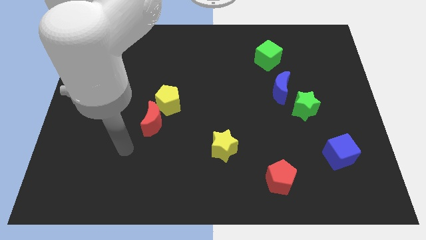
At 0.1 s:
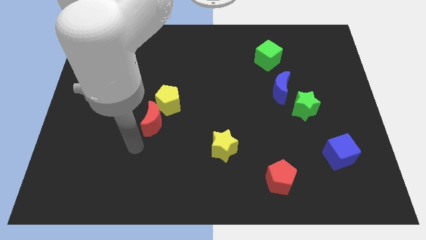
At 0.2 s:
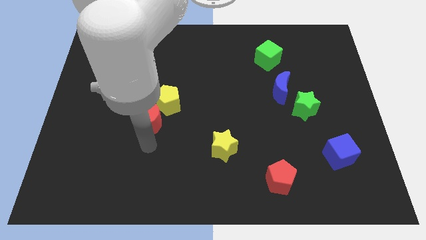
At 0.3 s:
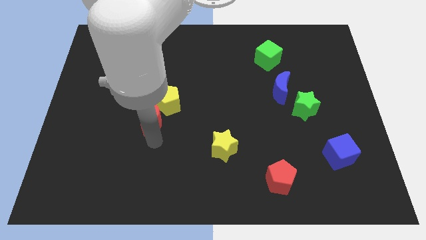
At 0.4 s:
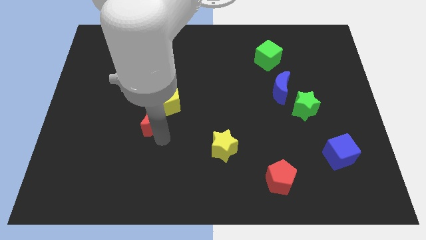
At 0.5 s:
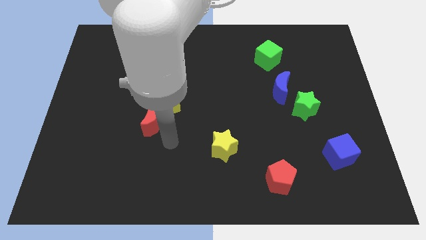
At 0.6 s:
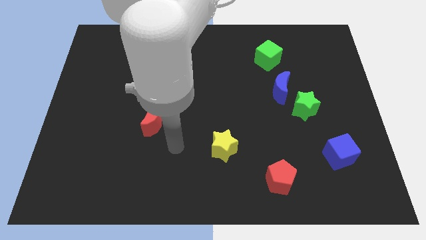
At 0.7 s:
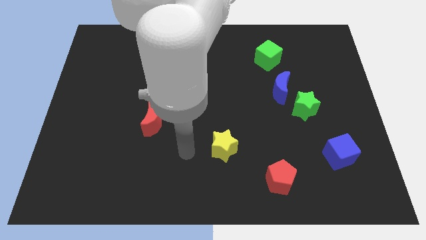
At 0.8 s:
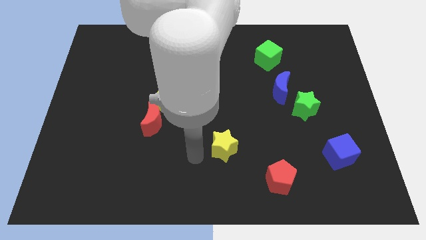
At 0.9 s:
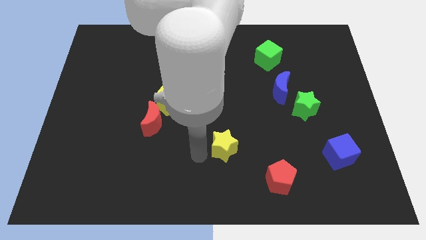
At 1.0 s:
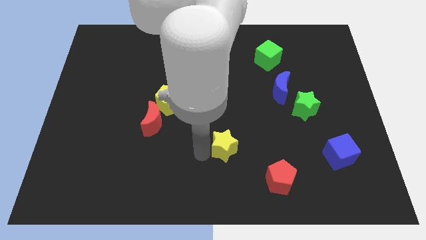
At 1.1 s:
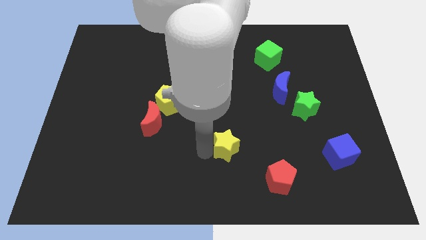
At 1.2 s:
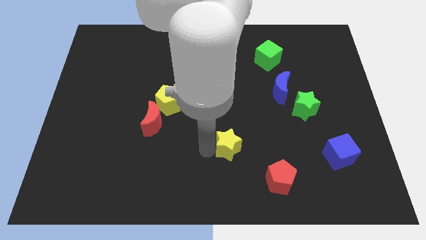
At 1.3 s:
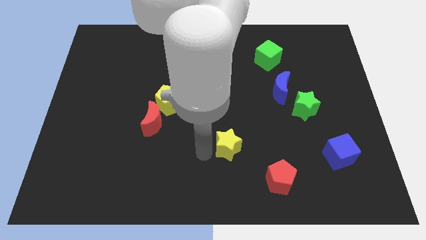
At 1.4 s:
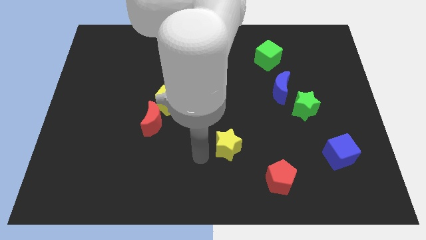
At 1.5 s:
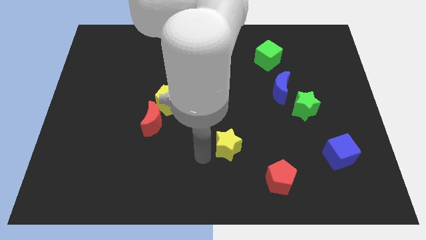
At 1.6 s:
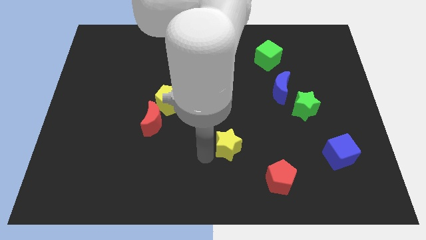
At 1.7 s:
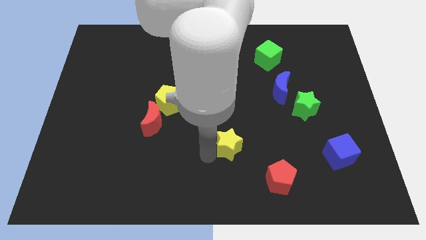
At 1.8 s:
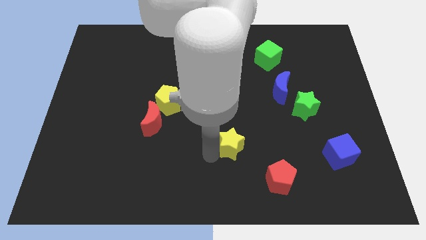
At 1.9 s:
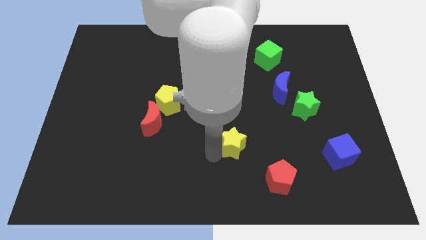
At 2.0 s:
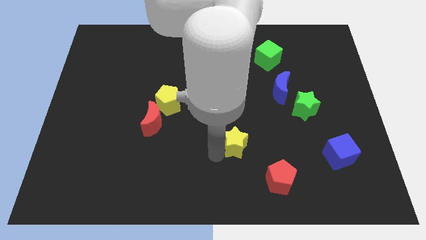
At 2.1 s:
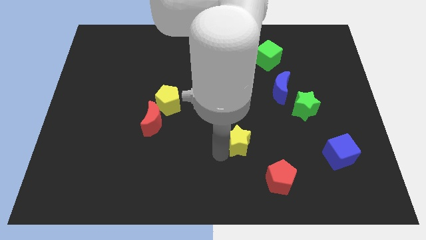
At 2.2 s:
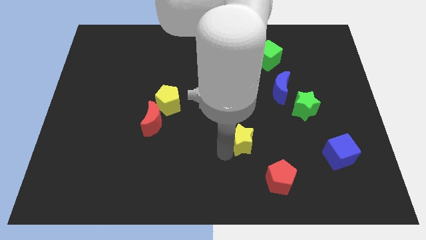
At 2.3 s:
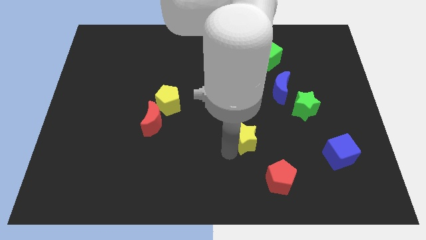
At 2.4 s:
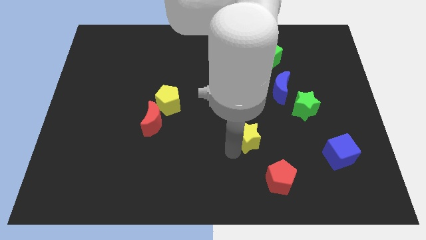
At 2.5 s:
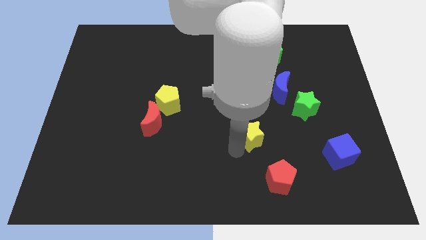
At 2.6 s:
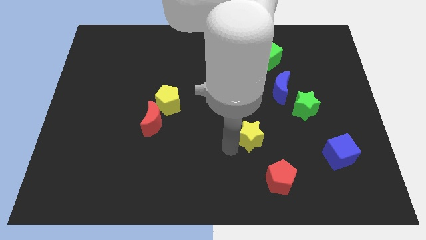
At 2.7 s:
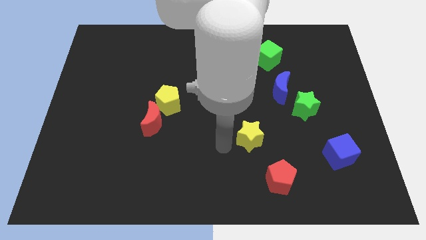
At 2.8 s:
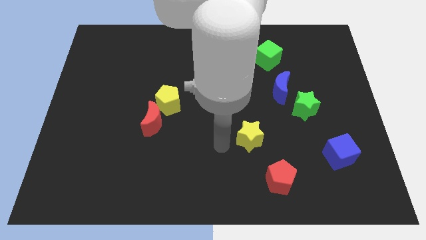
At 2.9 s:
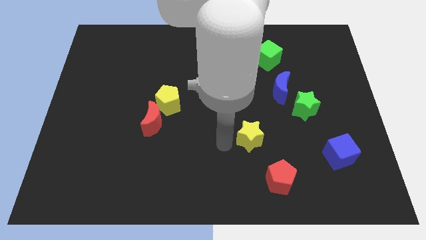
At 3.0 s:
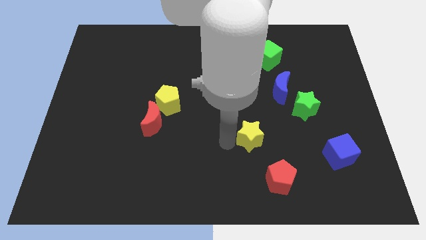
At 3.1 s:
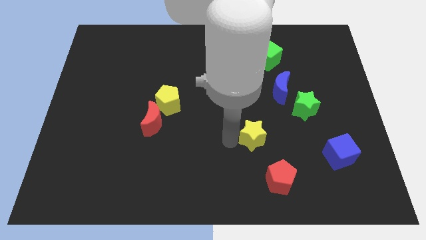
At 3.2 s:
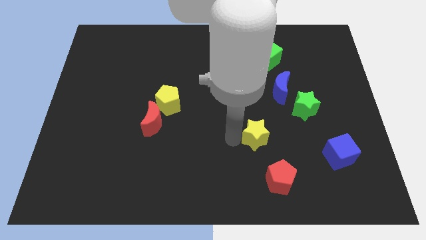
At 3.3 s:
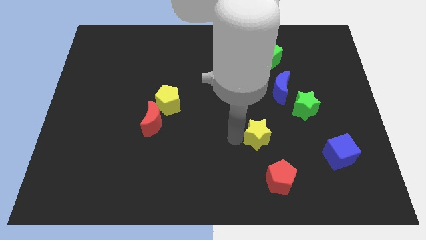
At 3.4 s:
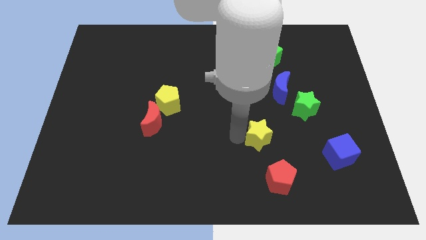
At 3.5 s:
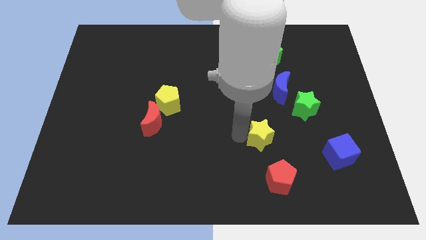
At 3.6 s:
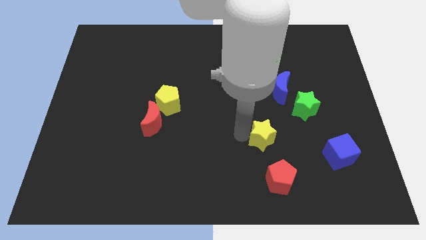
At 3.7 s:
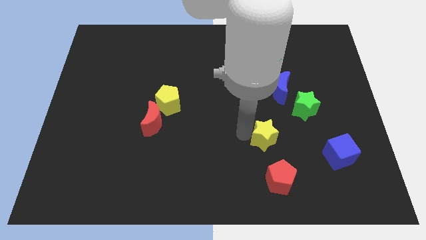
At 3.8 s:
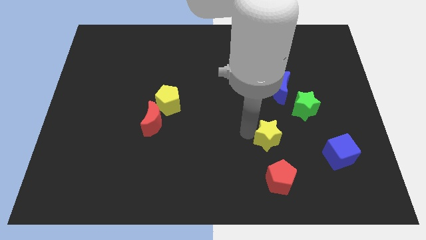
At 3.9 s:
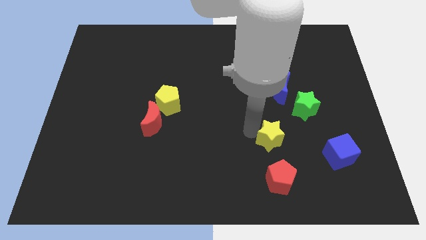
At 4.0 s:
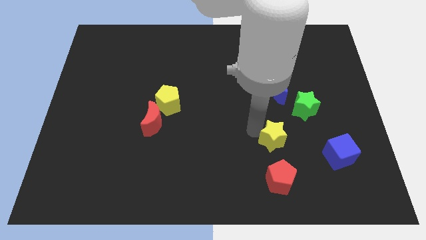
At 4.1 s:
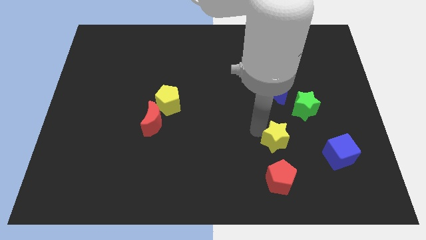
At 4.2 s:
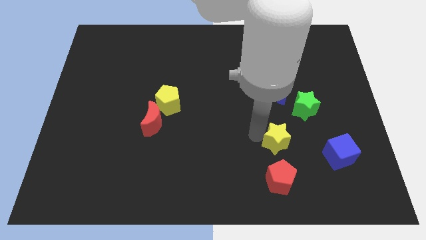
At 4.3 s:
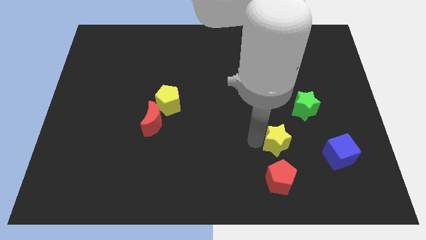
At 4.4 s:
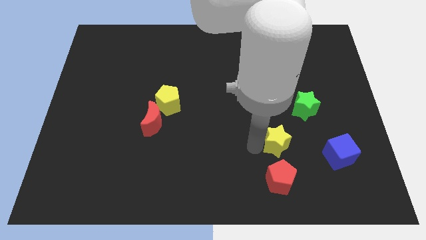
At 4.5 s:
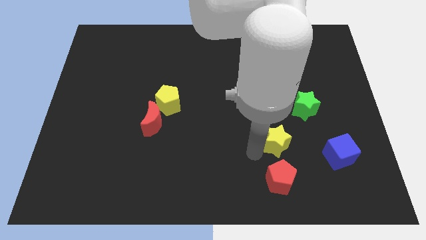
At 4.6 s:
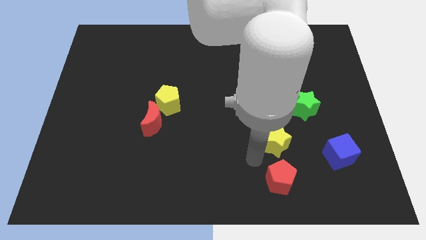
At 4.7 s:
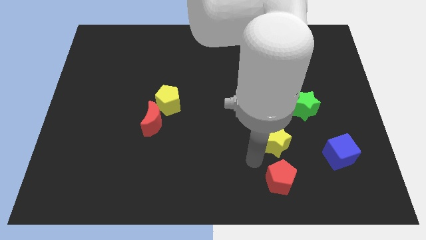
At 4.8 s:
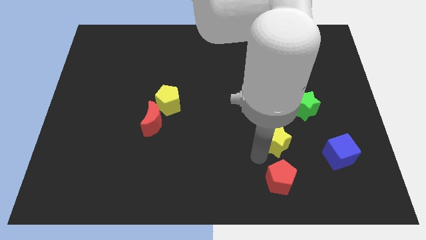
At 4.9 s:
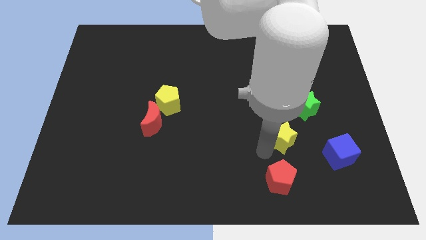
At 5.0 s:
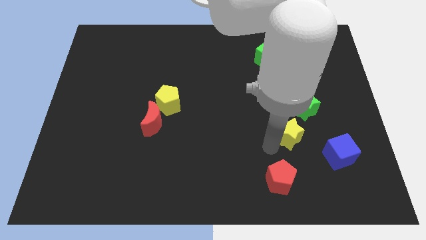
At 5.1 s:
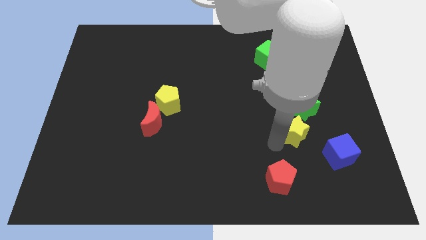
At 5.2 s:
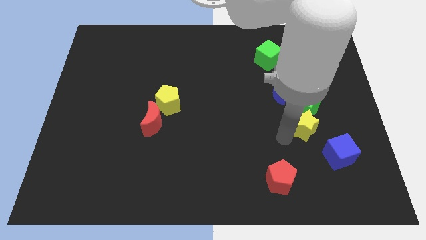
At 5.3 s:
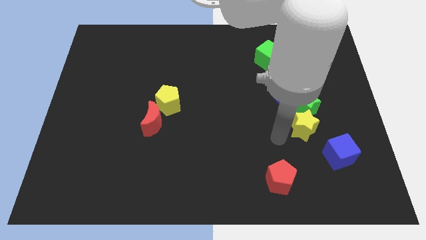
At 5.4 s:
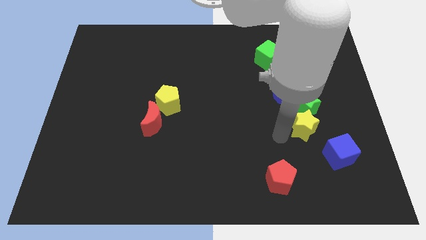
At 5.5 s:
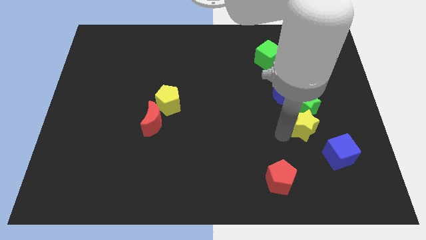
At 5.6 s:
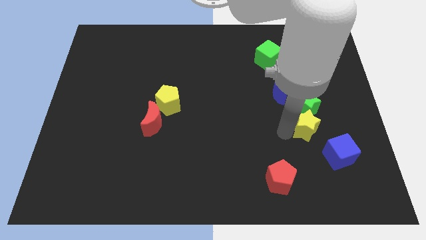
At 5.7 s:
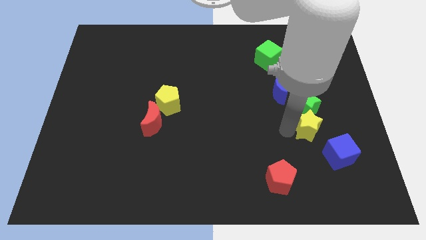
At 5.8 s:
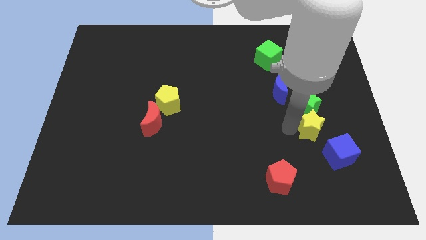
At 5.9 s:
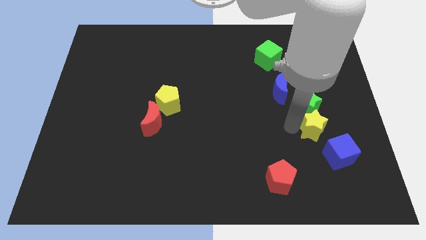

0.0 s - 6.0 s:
push the yellow star to the top side of the blue cube

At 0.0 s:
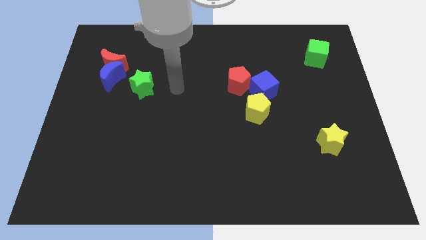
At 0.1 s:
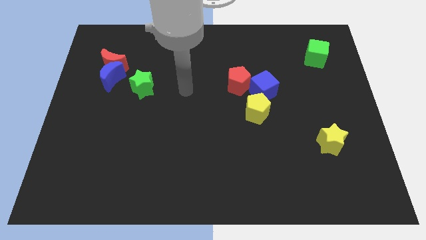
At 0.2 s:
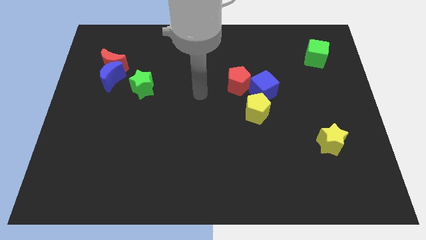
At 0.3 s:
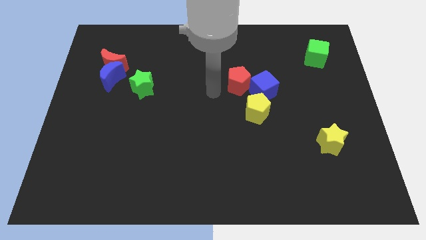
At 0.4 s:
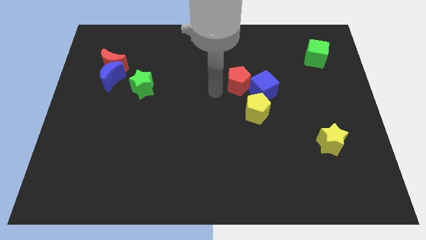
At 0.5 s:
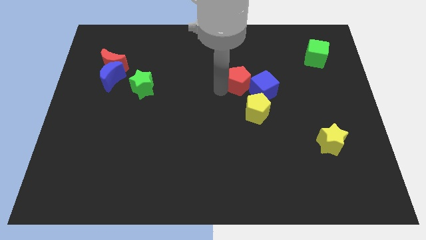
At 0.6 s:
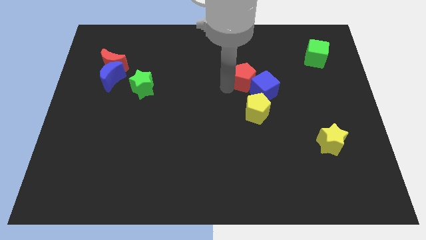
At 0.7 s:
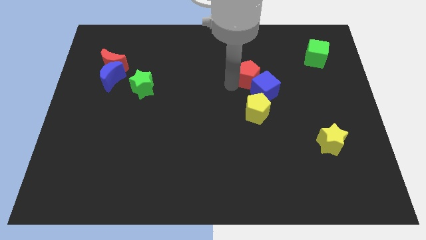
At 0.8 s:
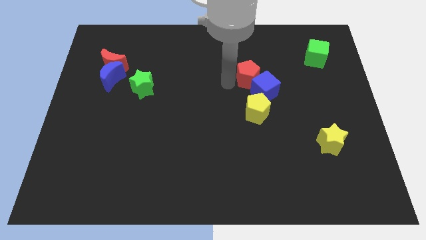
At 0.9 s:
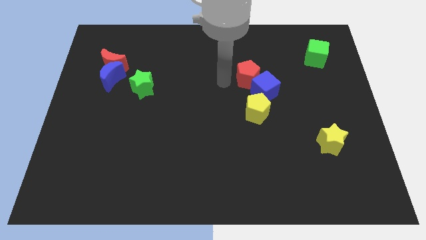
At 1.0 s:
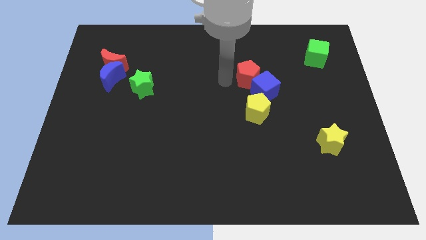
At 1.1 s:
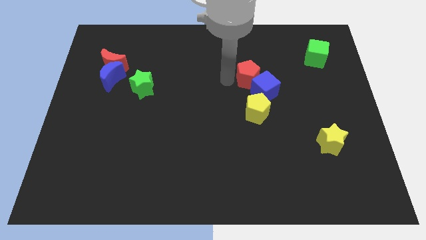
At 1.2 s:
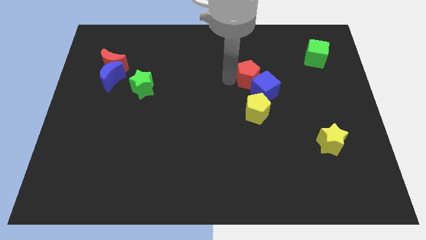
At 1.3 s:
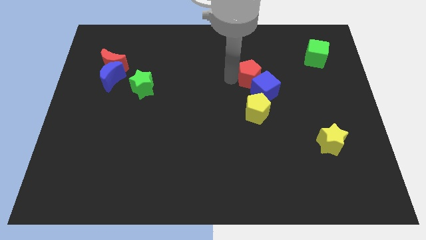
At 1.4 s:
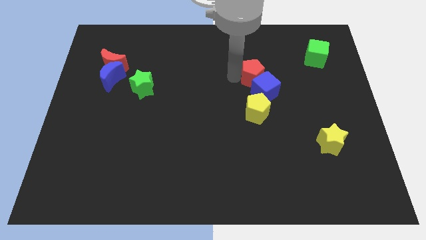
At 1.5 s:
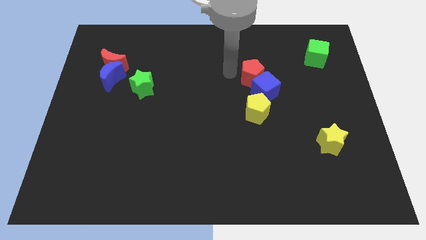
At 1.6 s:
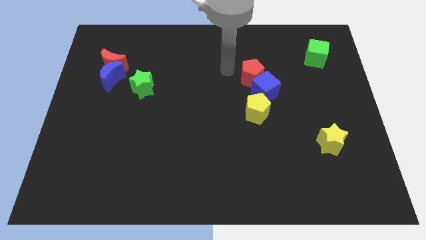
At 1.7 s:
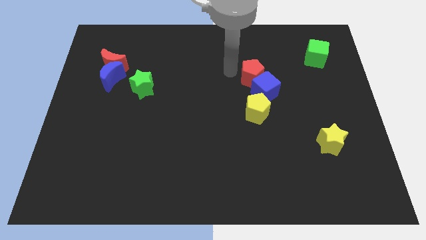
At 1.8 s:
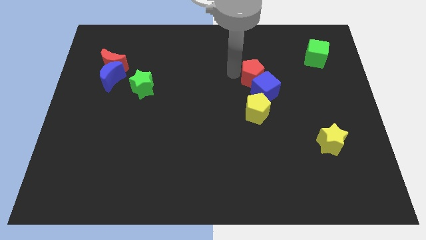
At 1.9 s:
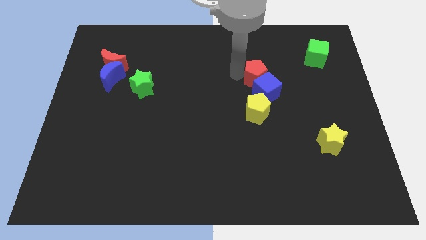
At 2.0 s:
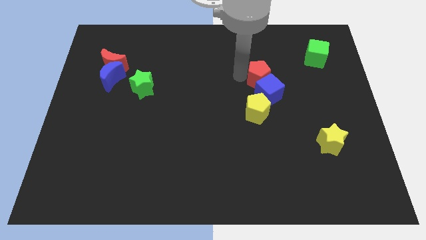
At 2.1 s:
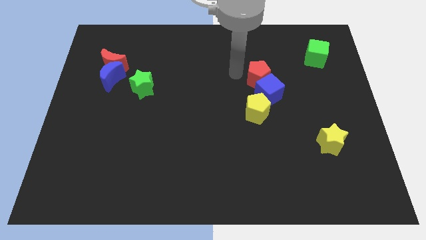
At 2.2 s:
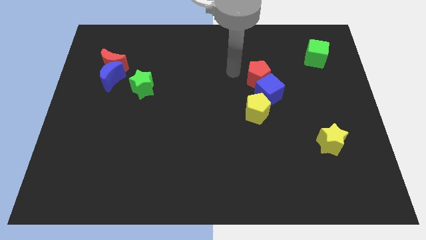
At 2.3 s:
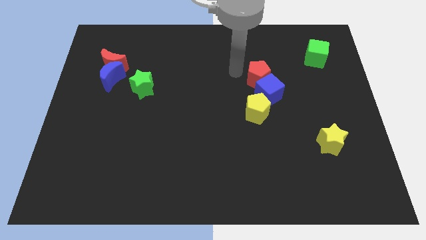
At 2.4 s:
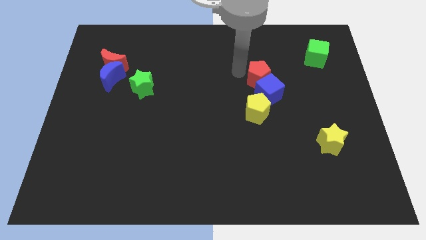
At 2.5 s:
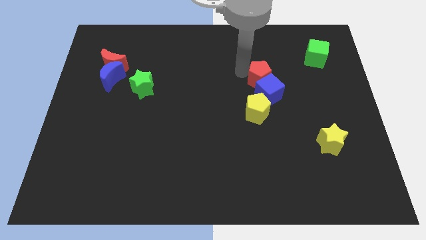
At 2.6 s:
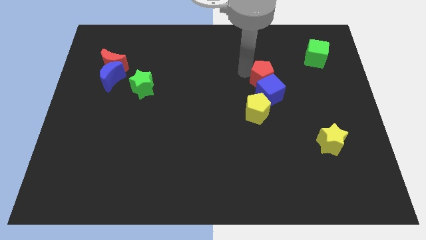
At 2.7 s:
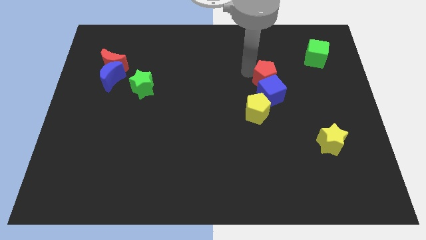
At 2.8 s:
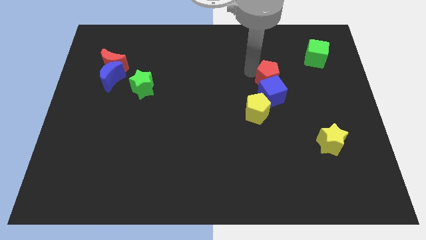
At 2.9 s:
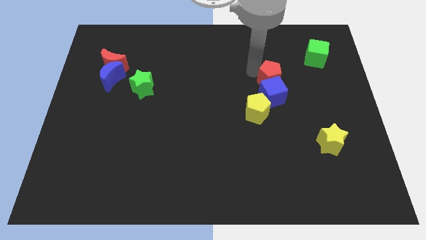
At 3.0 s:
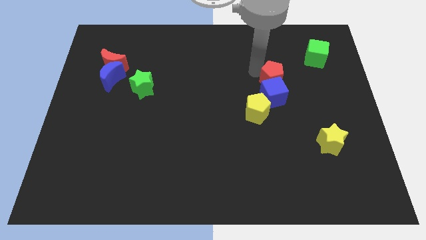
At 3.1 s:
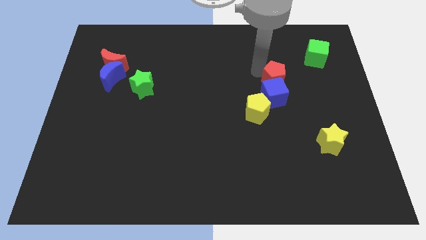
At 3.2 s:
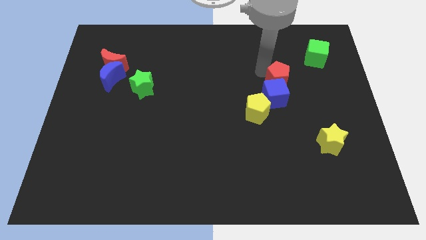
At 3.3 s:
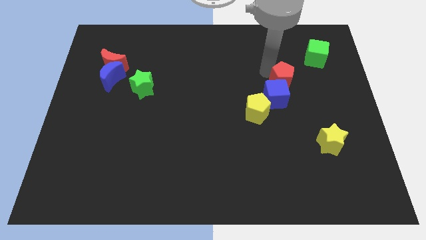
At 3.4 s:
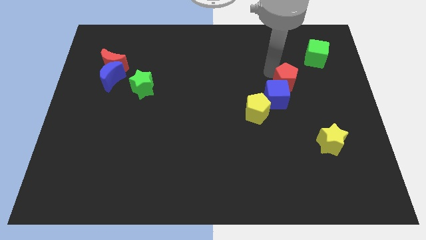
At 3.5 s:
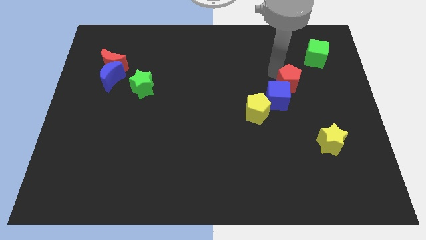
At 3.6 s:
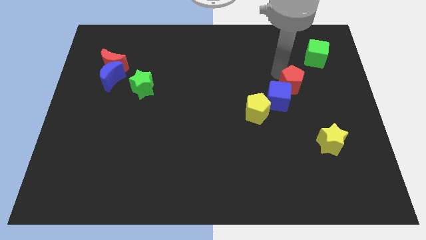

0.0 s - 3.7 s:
move the red pentagon right of the blue cube
